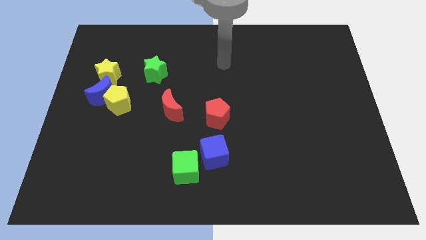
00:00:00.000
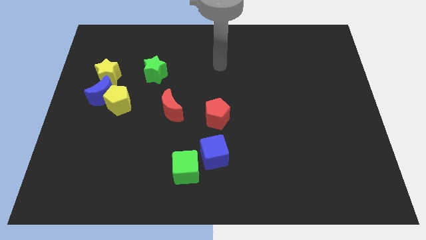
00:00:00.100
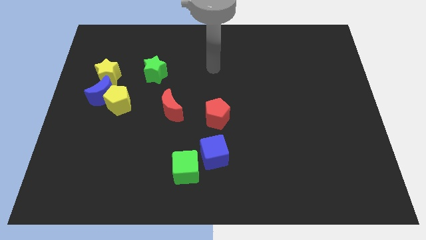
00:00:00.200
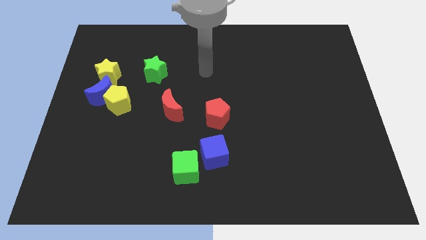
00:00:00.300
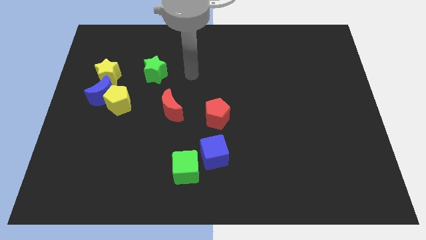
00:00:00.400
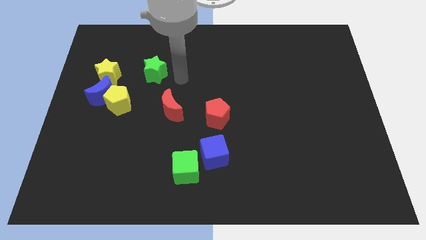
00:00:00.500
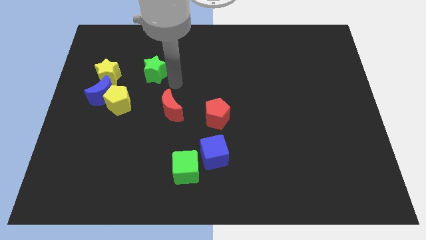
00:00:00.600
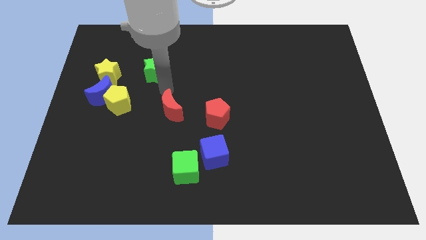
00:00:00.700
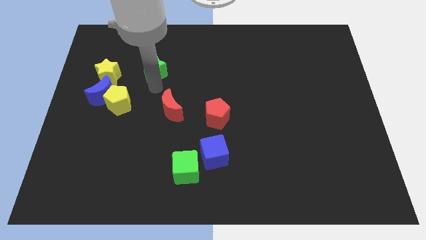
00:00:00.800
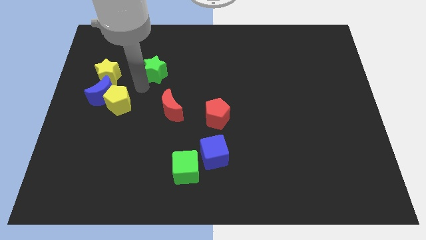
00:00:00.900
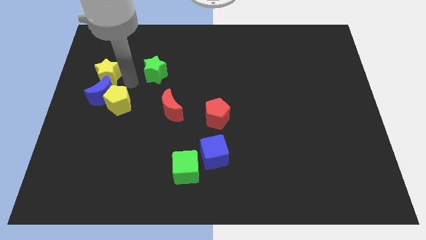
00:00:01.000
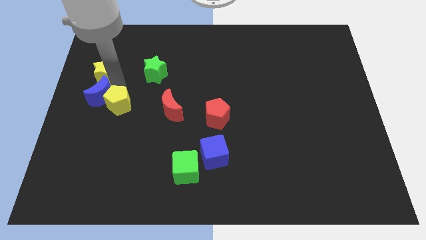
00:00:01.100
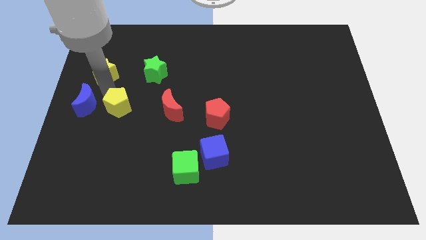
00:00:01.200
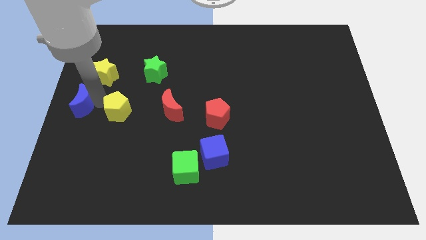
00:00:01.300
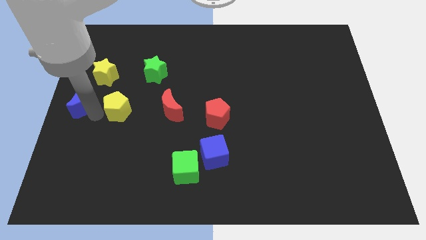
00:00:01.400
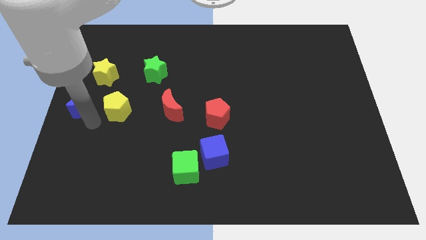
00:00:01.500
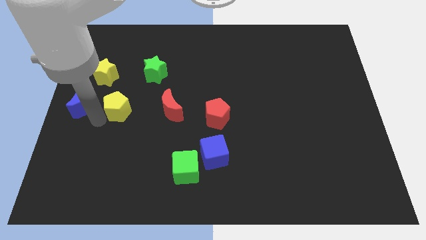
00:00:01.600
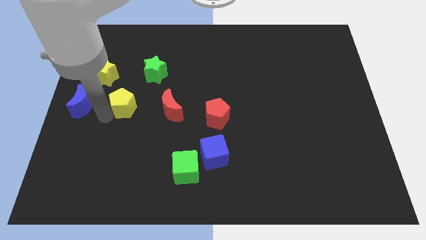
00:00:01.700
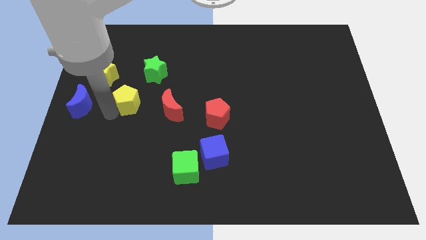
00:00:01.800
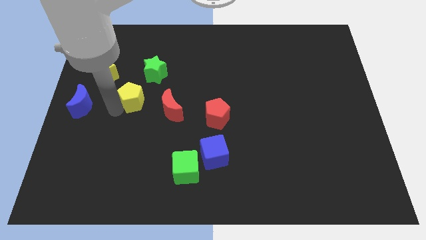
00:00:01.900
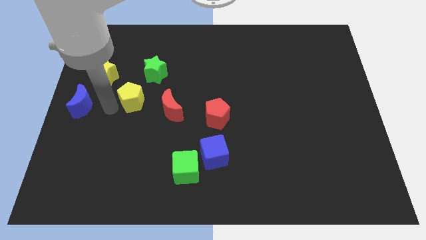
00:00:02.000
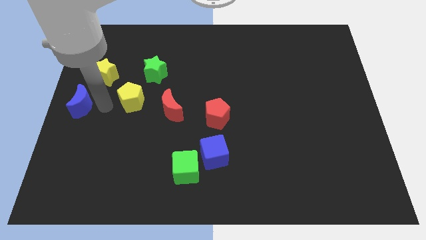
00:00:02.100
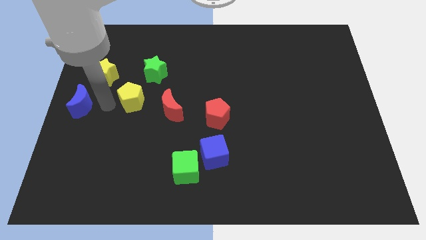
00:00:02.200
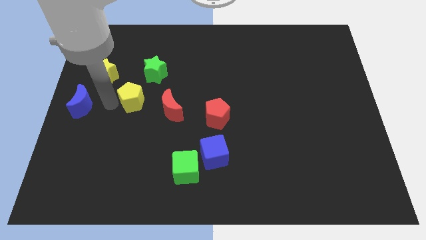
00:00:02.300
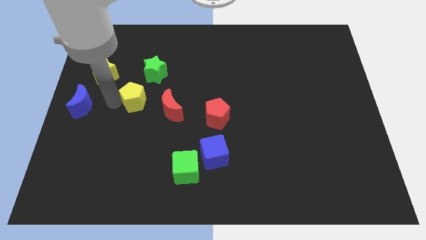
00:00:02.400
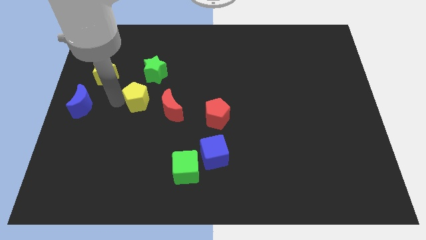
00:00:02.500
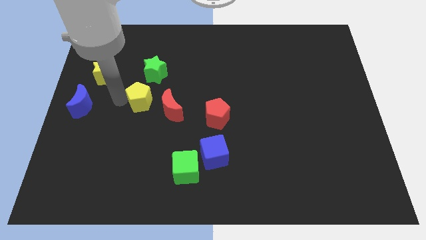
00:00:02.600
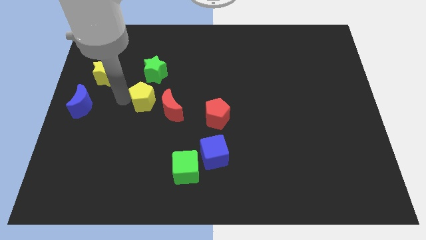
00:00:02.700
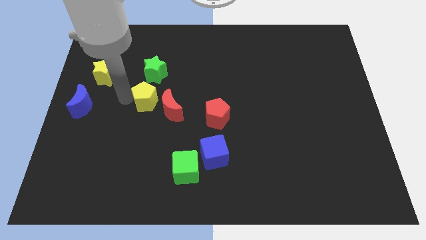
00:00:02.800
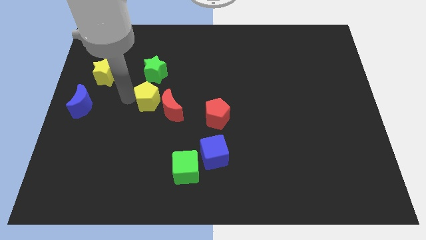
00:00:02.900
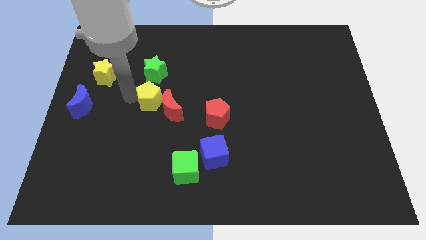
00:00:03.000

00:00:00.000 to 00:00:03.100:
slightly slide the yellow pentagon to the right

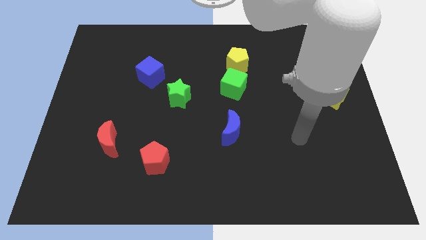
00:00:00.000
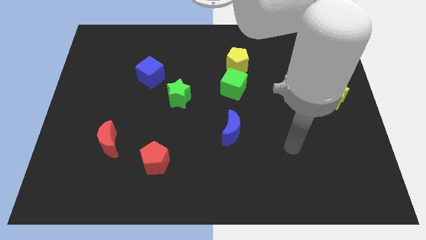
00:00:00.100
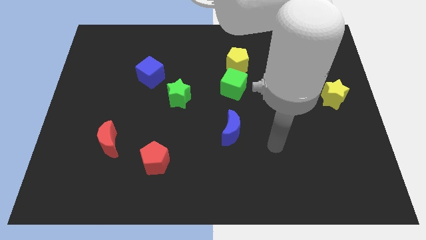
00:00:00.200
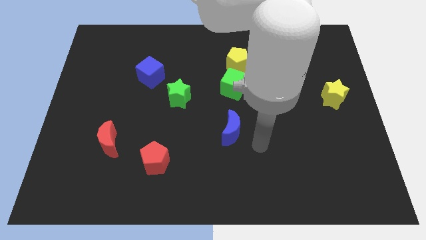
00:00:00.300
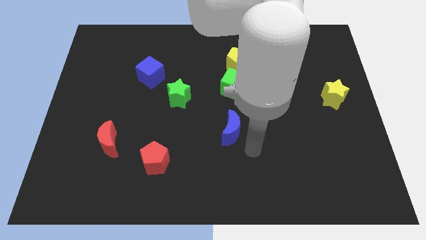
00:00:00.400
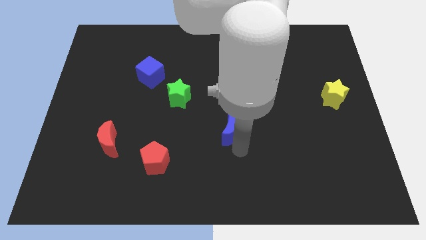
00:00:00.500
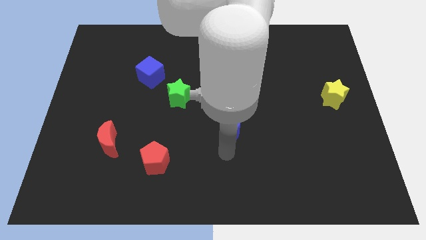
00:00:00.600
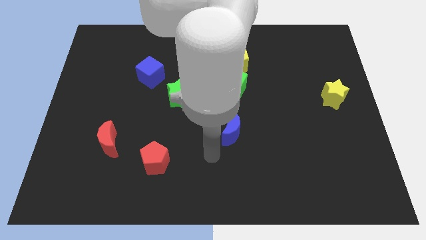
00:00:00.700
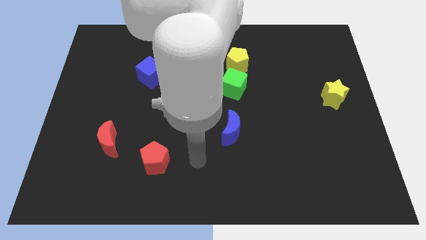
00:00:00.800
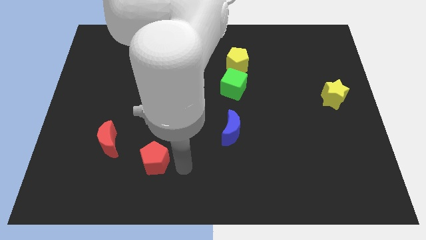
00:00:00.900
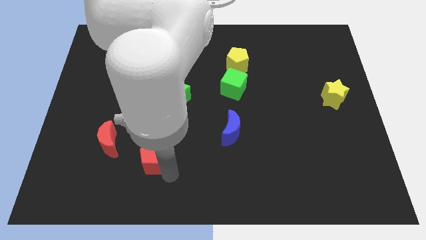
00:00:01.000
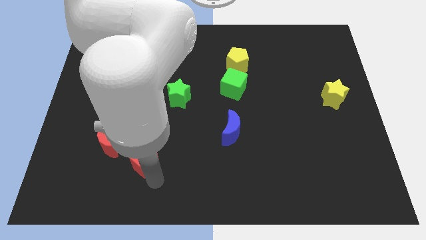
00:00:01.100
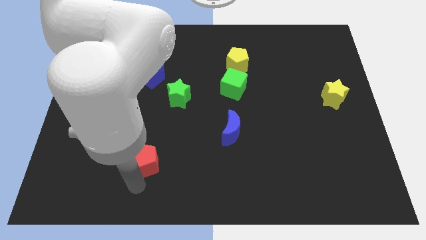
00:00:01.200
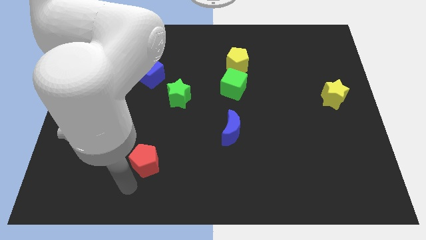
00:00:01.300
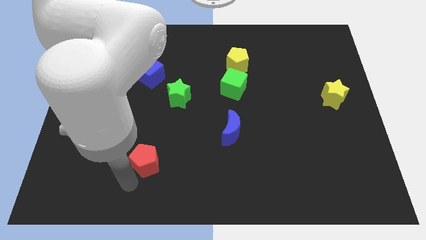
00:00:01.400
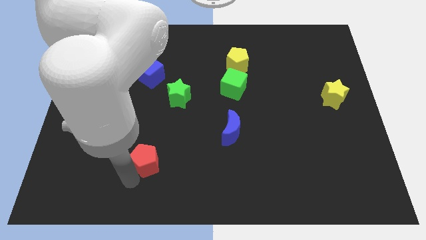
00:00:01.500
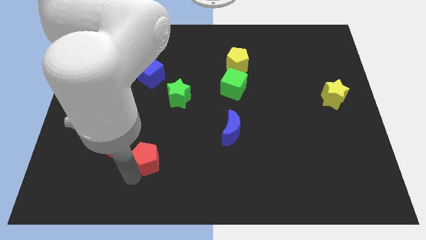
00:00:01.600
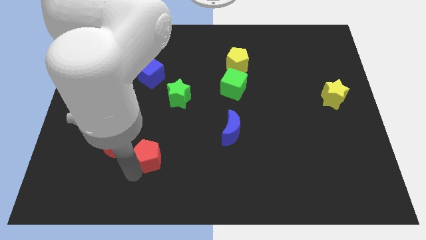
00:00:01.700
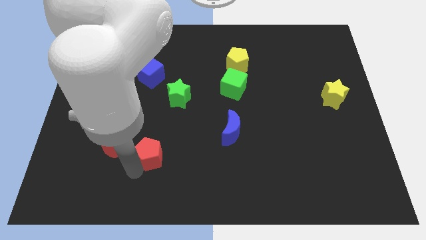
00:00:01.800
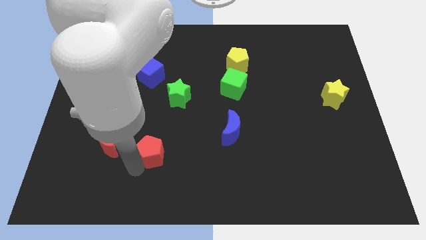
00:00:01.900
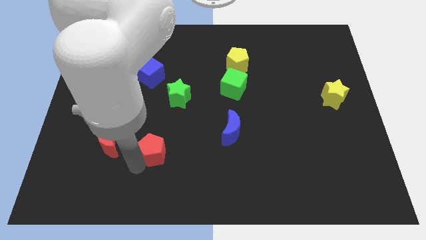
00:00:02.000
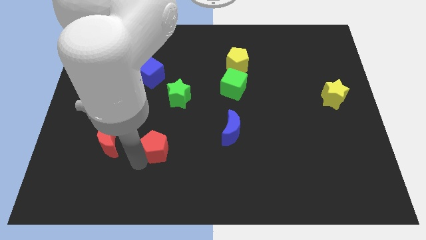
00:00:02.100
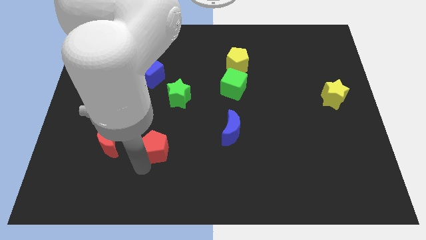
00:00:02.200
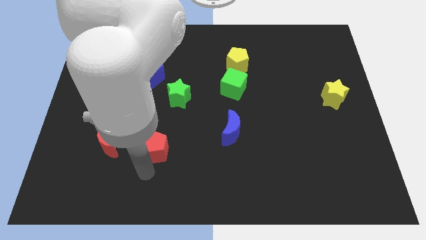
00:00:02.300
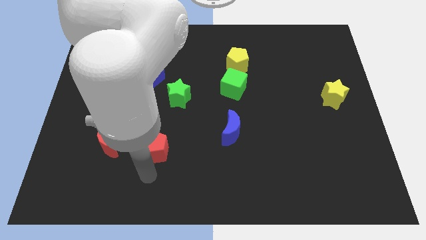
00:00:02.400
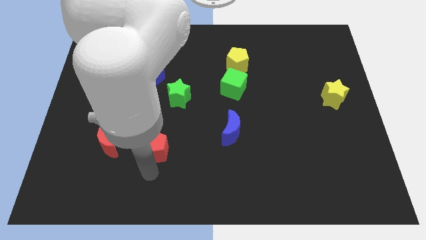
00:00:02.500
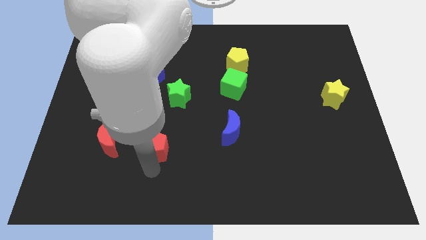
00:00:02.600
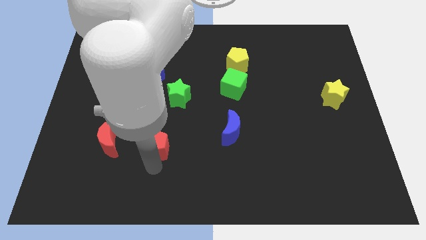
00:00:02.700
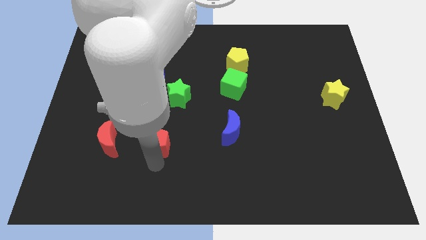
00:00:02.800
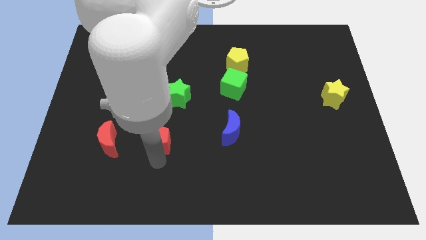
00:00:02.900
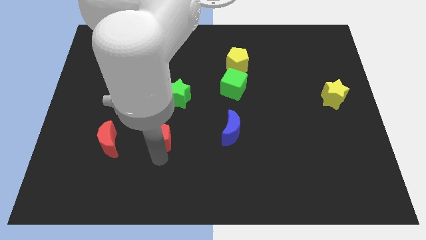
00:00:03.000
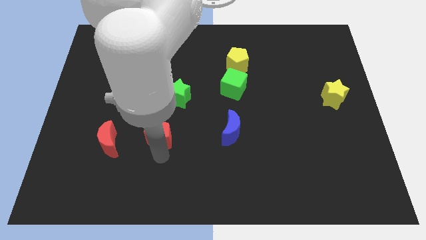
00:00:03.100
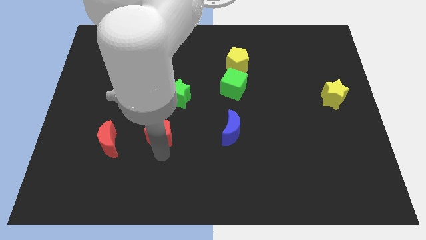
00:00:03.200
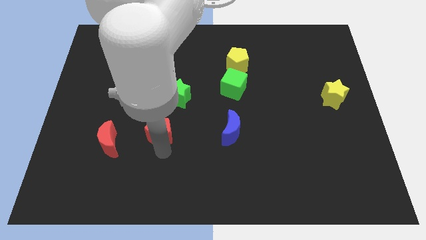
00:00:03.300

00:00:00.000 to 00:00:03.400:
slide the red pentagon up a little

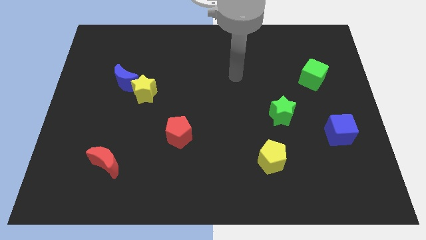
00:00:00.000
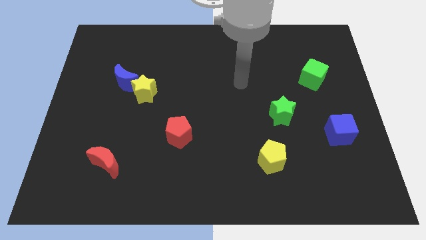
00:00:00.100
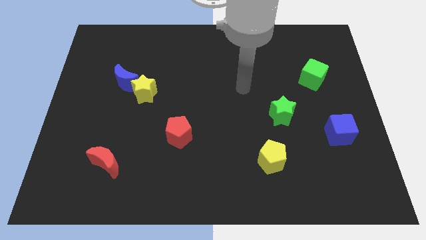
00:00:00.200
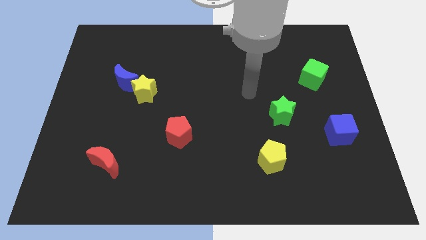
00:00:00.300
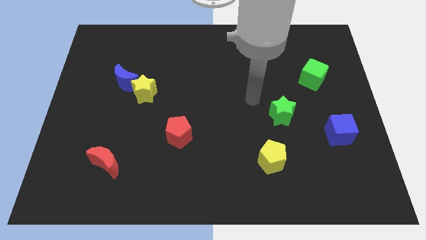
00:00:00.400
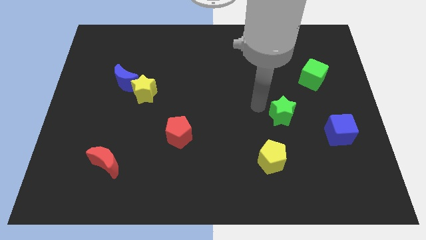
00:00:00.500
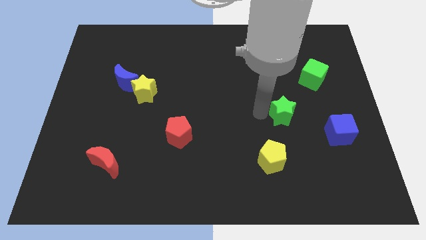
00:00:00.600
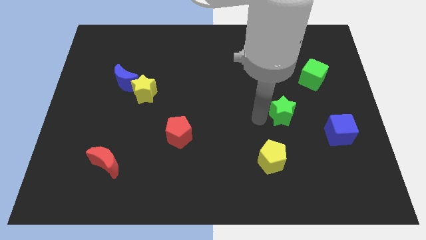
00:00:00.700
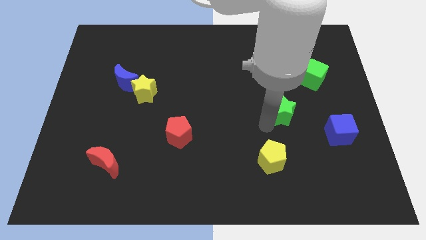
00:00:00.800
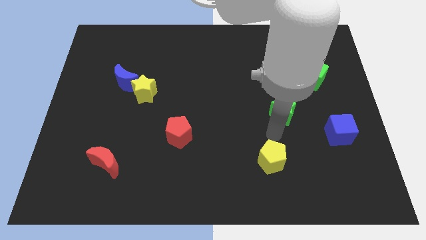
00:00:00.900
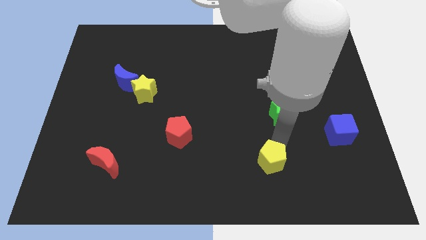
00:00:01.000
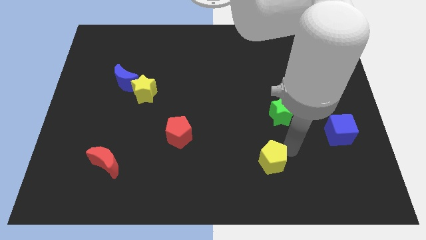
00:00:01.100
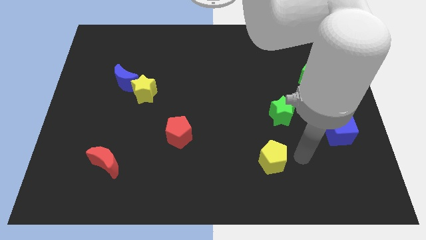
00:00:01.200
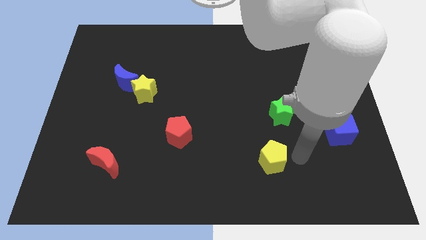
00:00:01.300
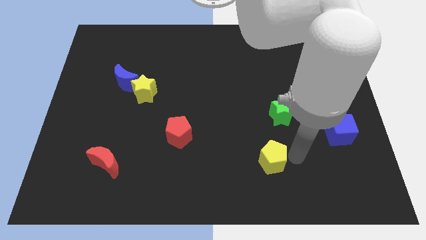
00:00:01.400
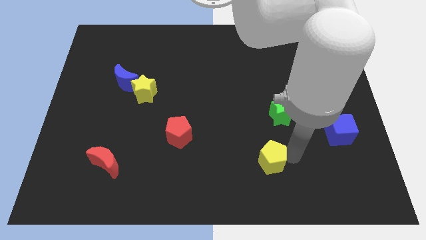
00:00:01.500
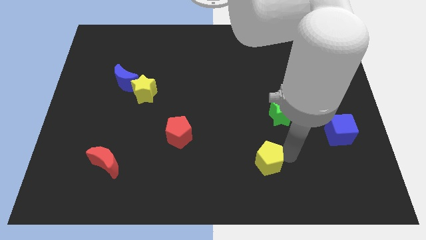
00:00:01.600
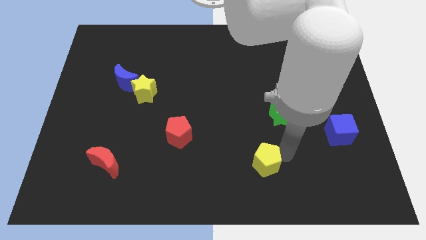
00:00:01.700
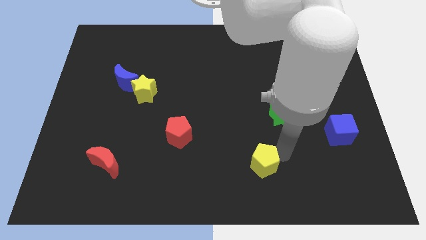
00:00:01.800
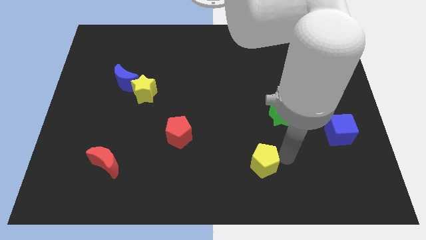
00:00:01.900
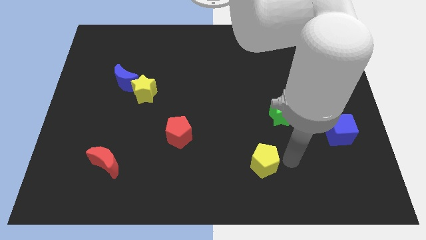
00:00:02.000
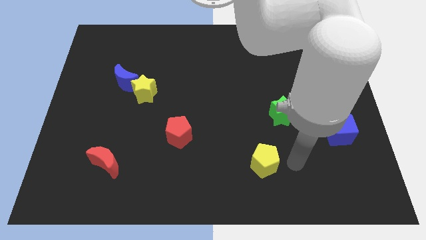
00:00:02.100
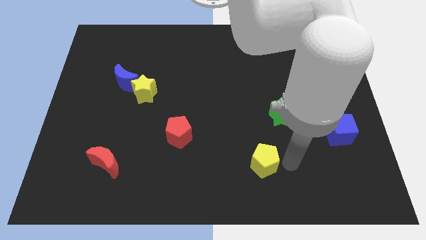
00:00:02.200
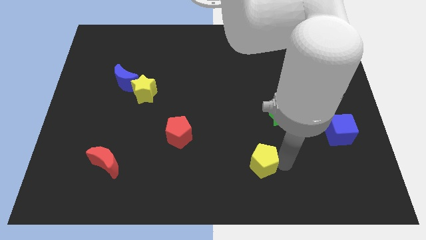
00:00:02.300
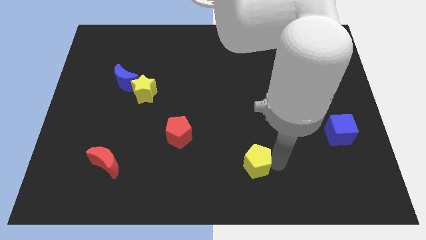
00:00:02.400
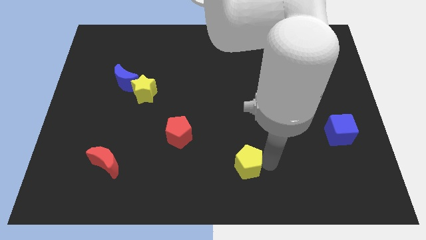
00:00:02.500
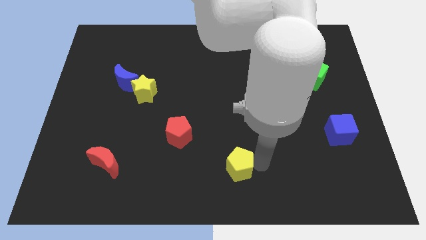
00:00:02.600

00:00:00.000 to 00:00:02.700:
push the yellow pentagon a bit left
